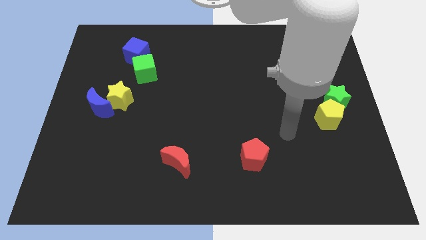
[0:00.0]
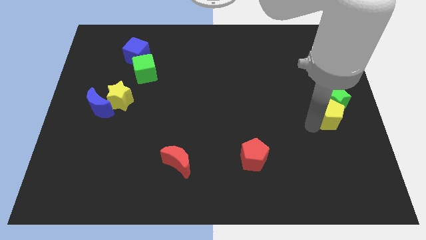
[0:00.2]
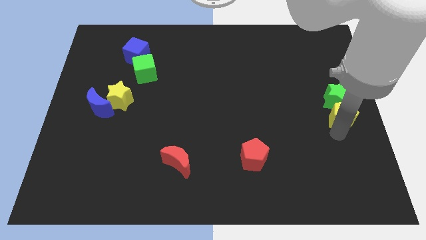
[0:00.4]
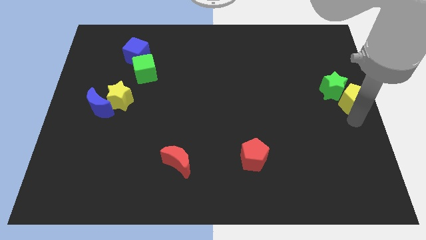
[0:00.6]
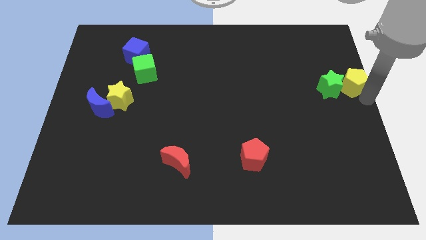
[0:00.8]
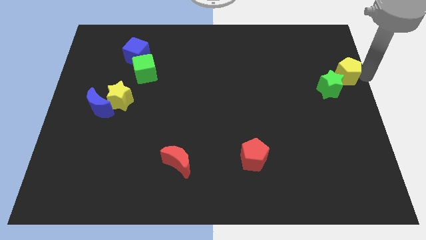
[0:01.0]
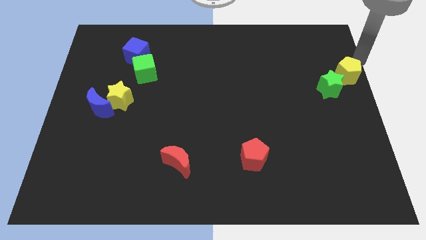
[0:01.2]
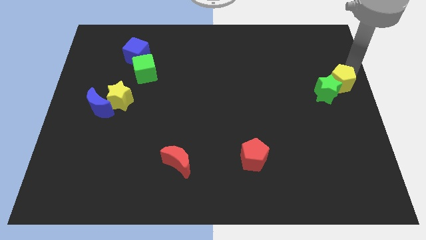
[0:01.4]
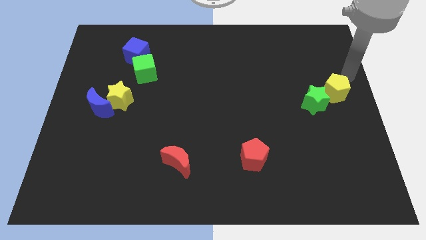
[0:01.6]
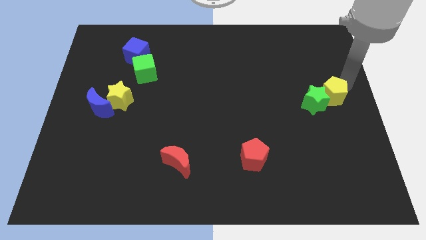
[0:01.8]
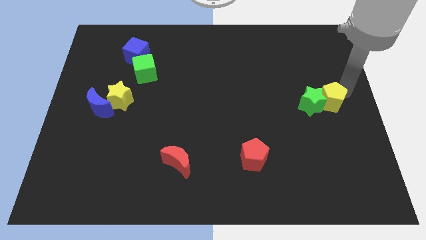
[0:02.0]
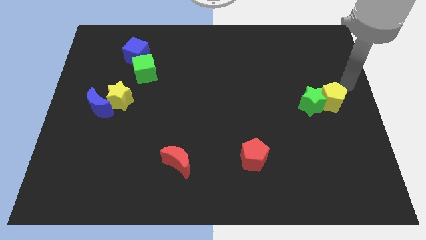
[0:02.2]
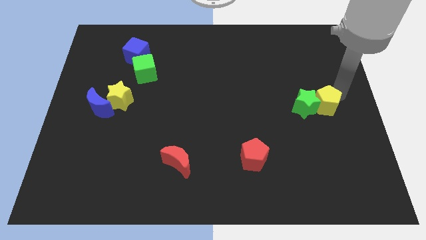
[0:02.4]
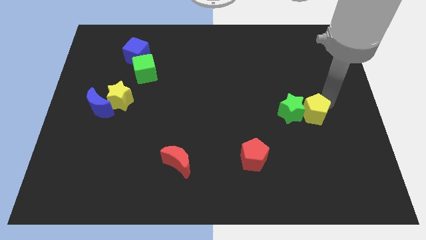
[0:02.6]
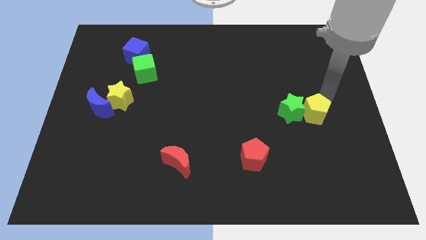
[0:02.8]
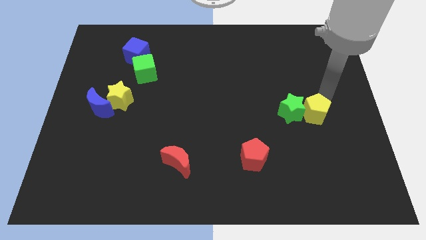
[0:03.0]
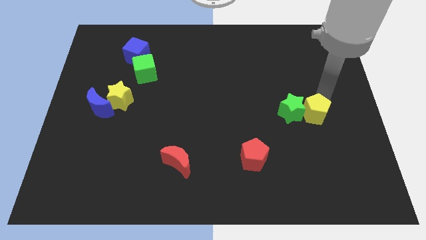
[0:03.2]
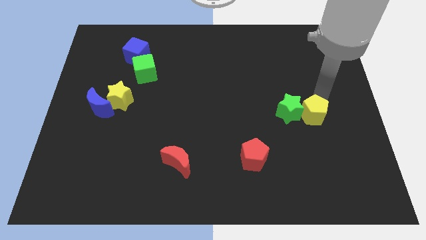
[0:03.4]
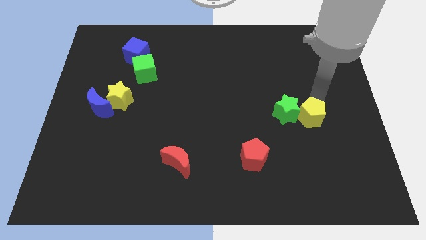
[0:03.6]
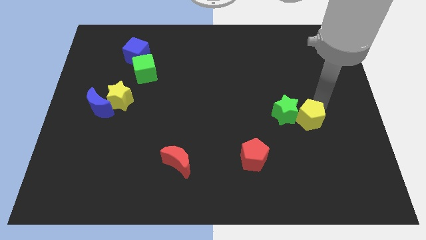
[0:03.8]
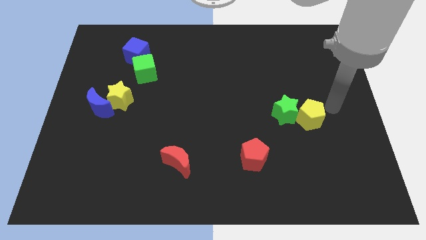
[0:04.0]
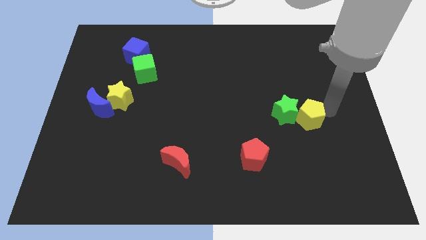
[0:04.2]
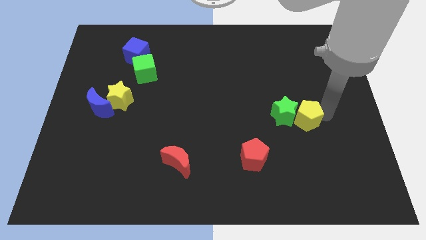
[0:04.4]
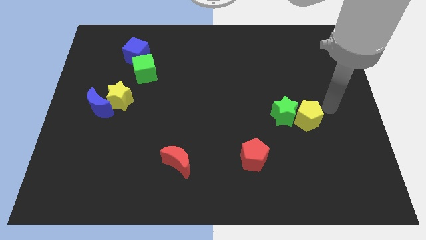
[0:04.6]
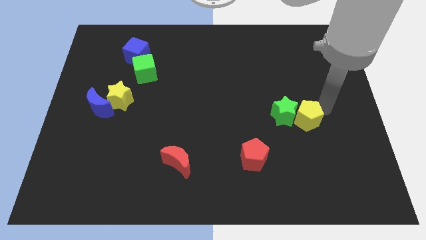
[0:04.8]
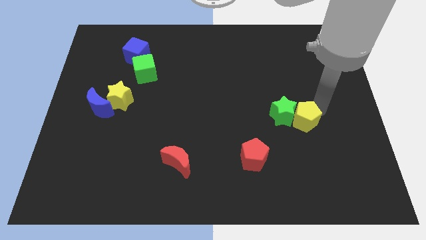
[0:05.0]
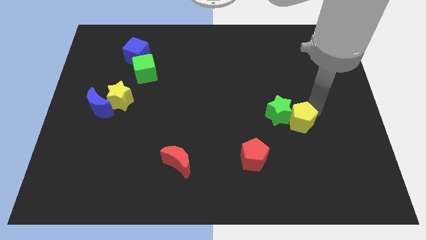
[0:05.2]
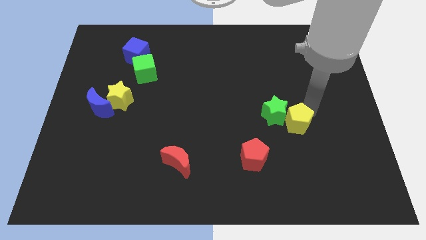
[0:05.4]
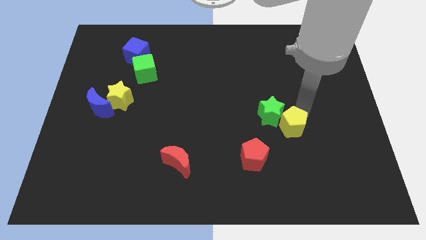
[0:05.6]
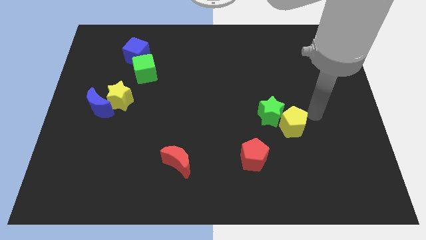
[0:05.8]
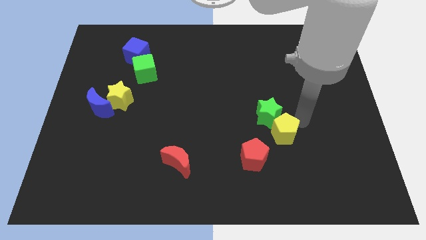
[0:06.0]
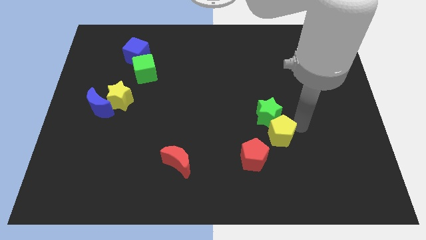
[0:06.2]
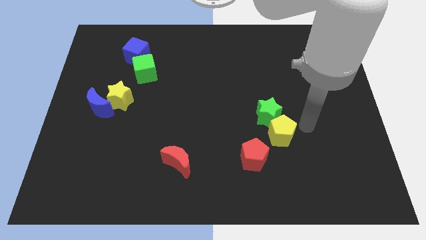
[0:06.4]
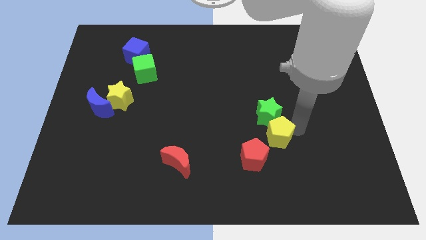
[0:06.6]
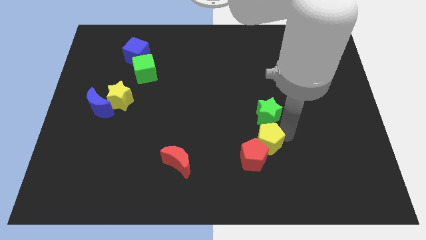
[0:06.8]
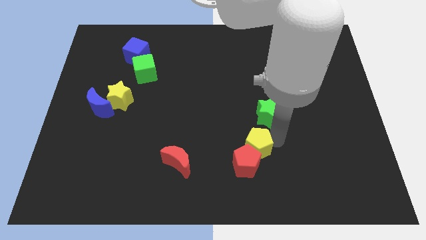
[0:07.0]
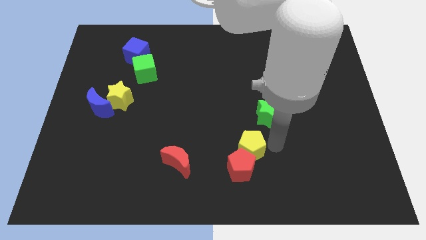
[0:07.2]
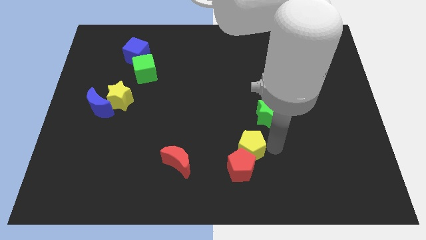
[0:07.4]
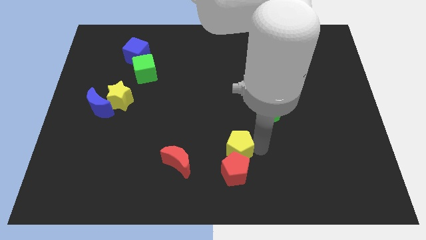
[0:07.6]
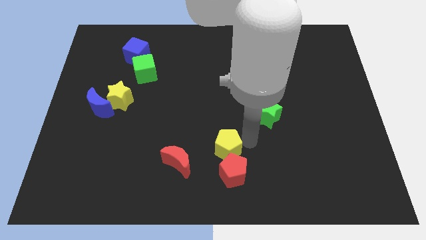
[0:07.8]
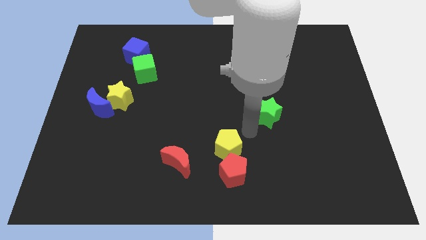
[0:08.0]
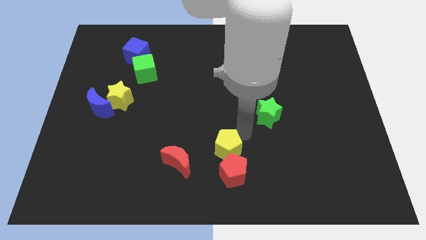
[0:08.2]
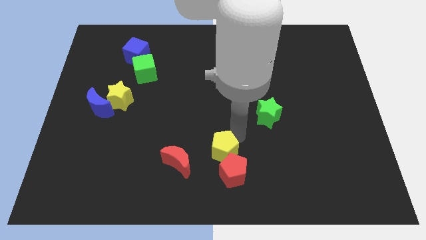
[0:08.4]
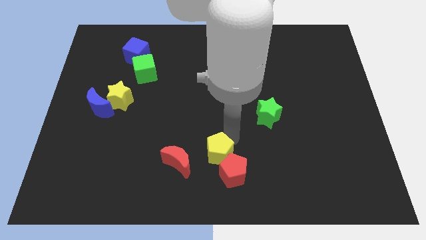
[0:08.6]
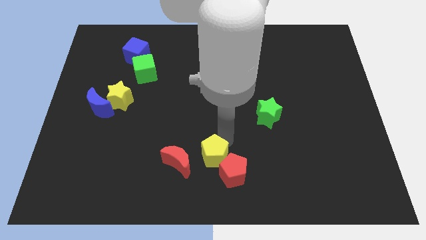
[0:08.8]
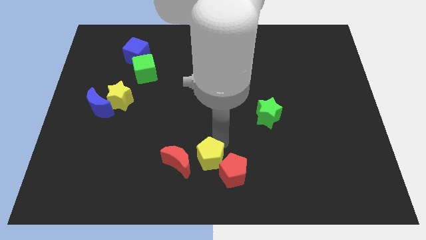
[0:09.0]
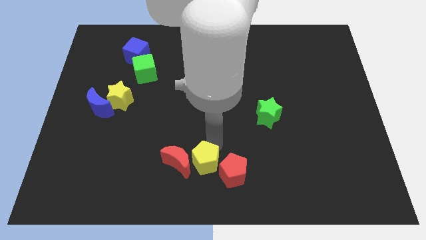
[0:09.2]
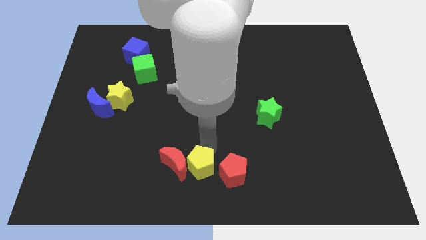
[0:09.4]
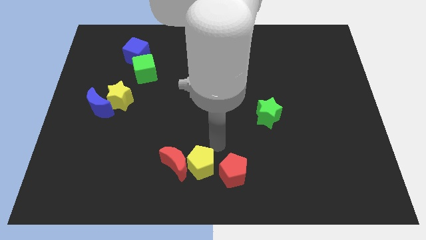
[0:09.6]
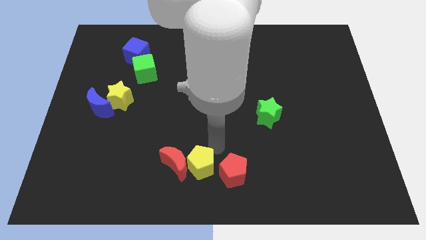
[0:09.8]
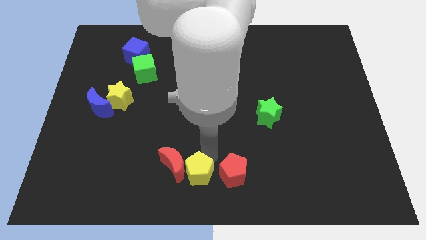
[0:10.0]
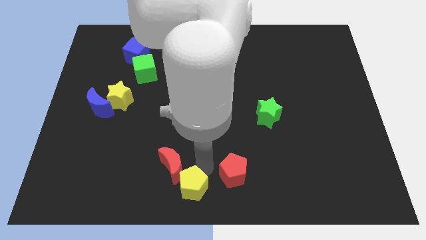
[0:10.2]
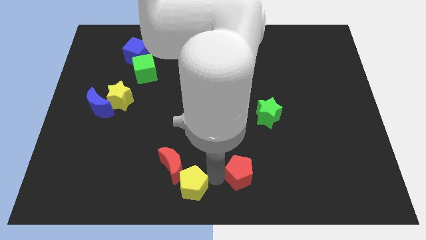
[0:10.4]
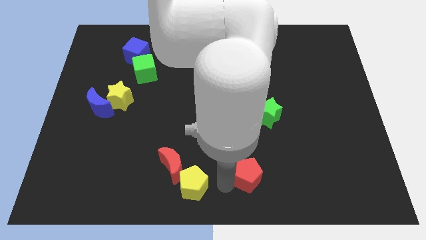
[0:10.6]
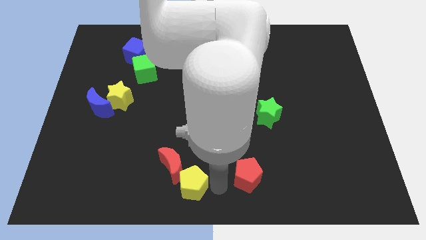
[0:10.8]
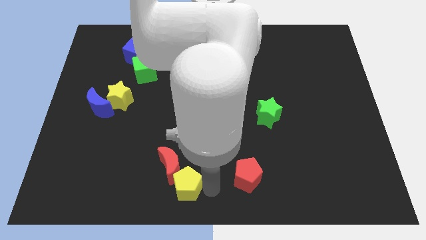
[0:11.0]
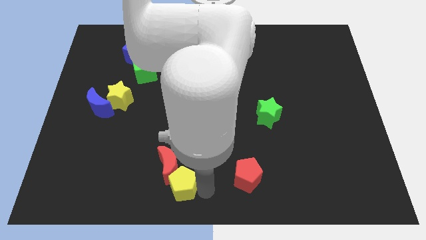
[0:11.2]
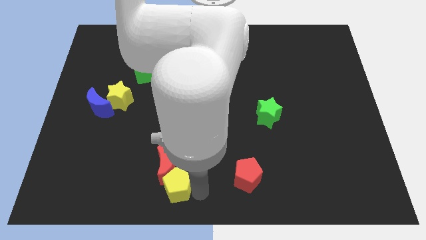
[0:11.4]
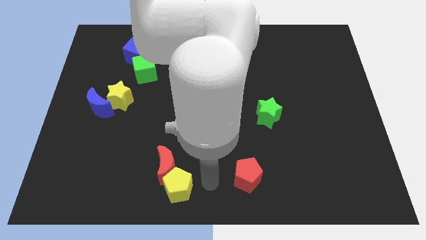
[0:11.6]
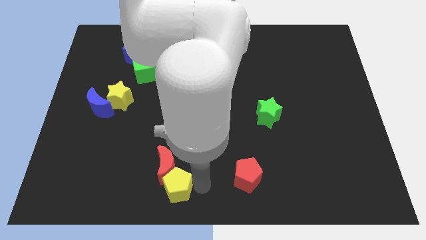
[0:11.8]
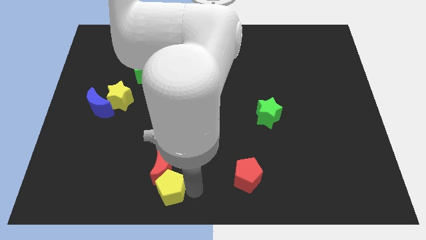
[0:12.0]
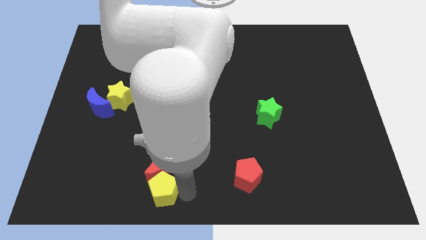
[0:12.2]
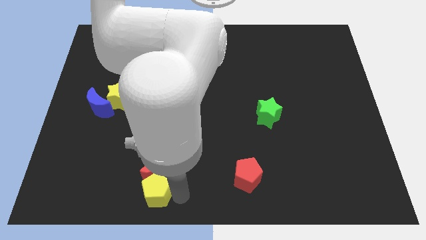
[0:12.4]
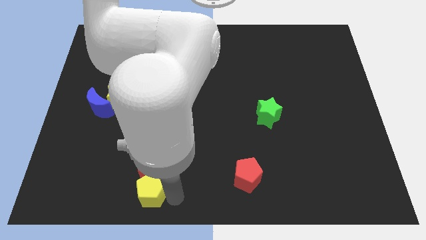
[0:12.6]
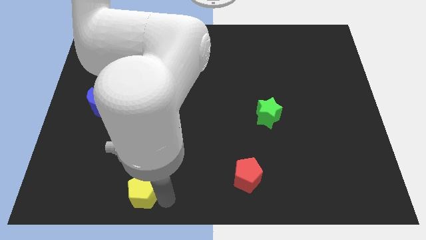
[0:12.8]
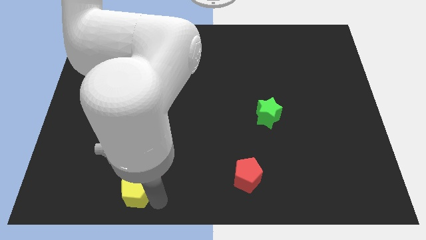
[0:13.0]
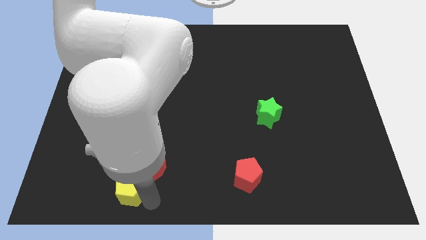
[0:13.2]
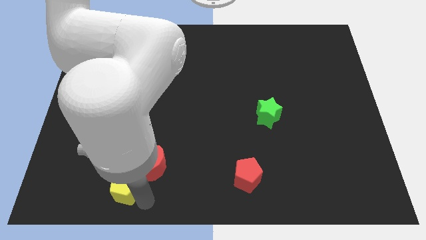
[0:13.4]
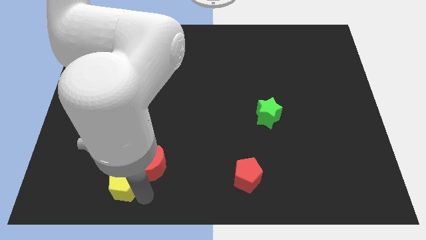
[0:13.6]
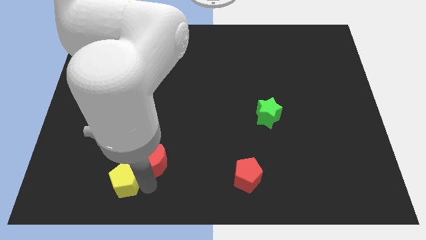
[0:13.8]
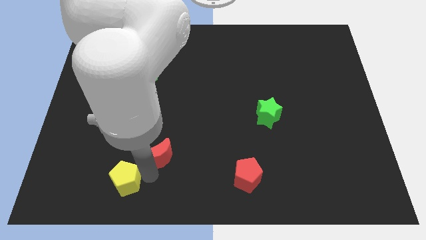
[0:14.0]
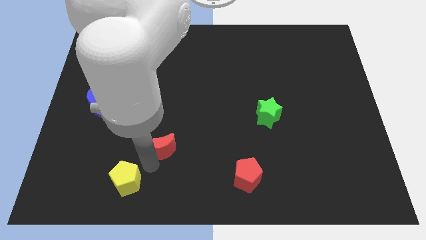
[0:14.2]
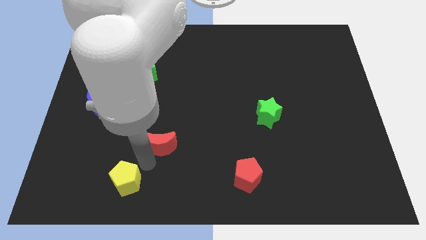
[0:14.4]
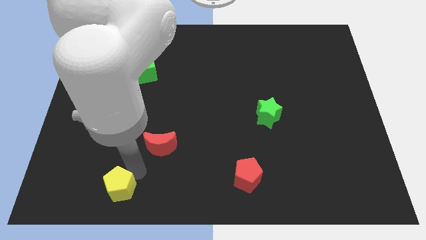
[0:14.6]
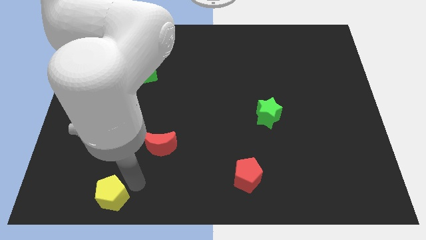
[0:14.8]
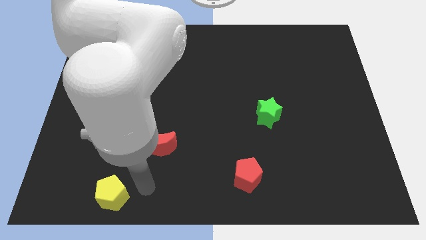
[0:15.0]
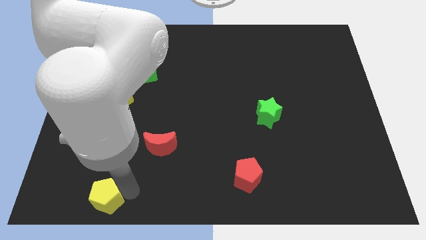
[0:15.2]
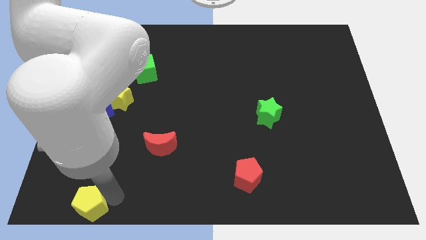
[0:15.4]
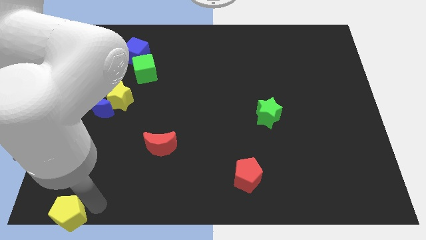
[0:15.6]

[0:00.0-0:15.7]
slide the yellow pentagon to the bottom left
